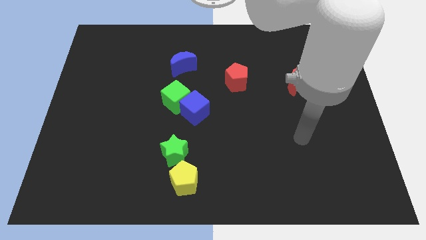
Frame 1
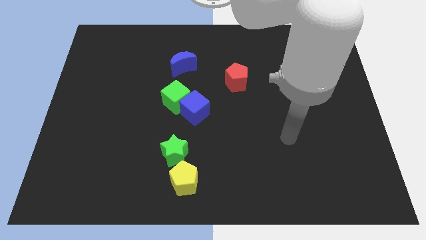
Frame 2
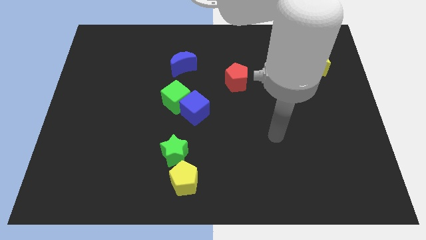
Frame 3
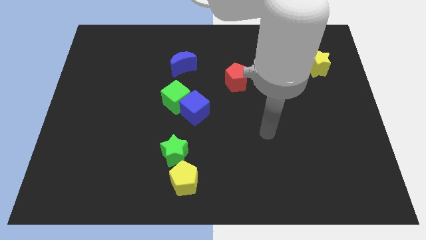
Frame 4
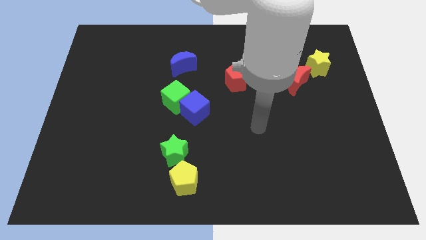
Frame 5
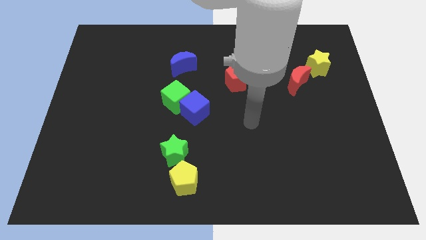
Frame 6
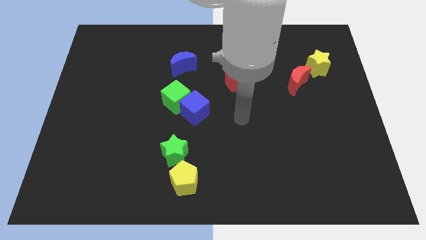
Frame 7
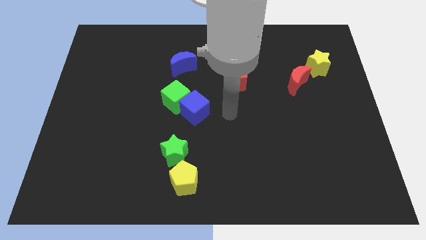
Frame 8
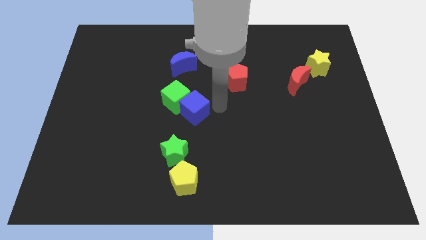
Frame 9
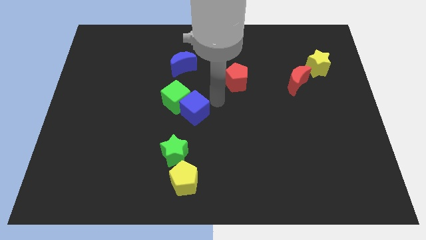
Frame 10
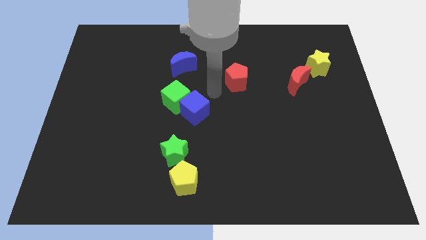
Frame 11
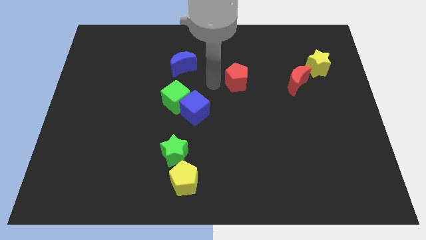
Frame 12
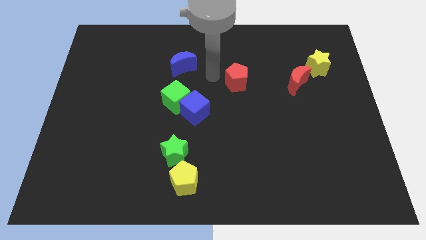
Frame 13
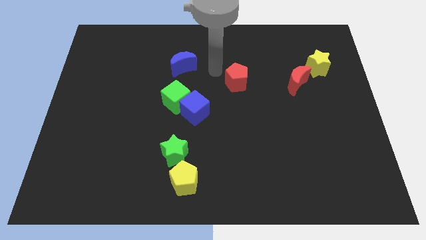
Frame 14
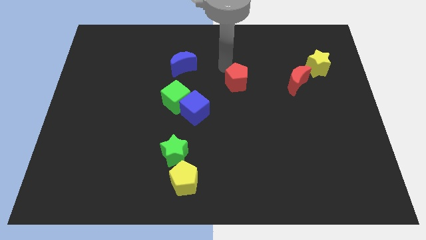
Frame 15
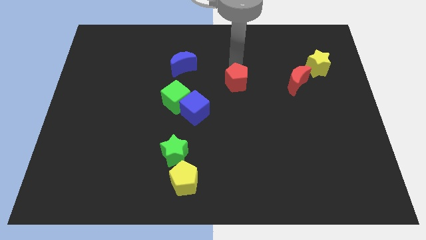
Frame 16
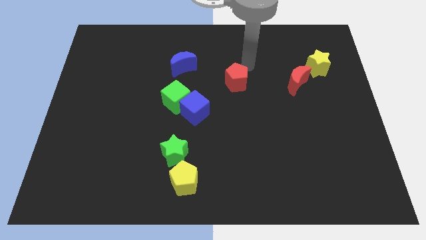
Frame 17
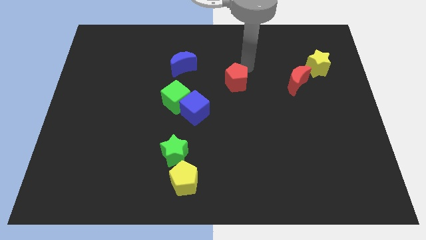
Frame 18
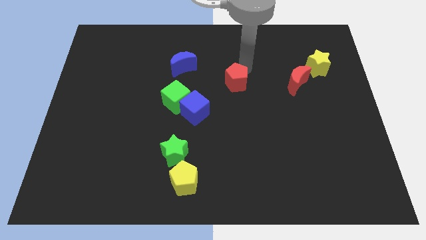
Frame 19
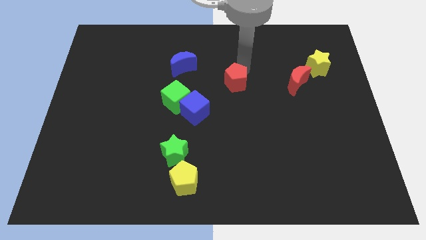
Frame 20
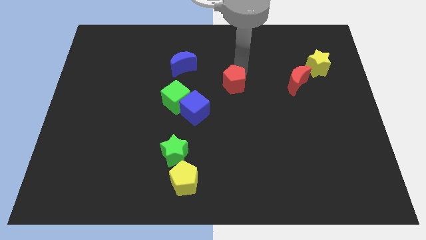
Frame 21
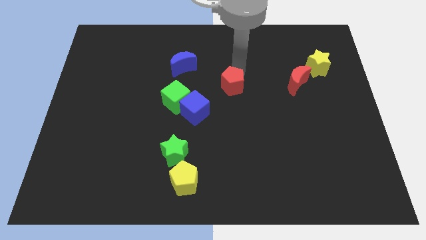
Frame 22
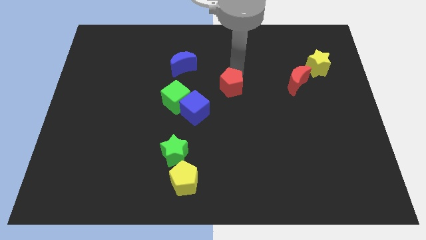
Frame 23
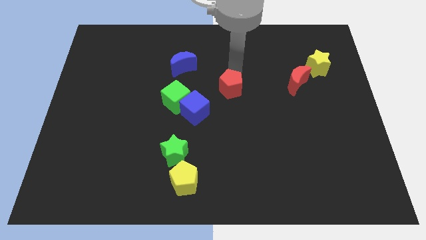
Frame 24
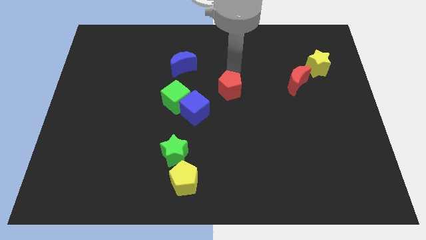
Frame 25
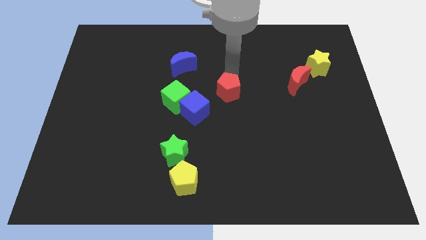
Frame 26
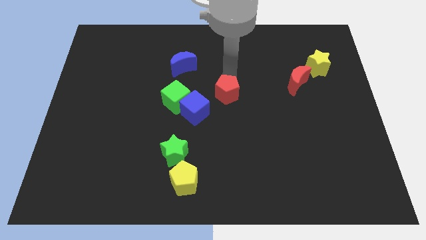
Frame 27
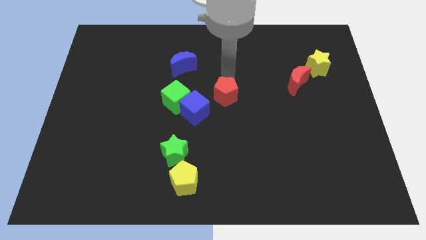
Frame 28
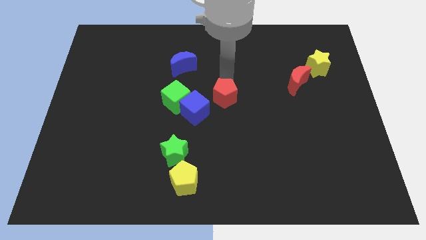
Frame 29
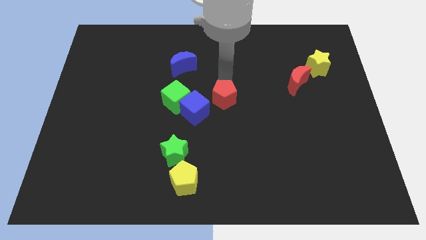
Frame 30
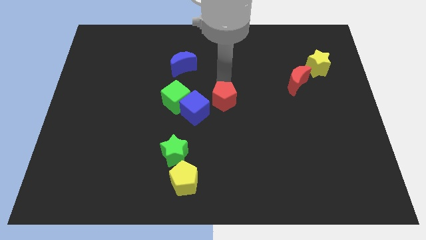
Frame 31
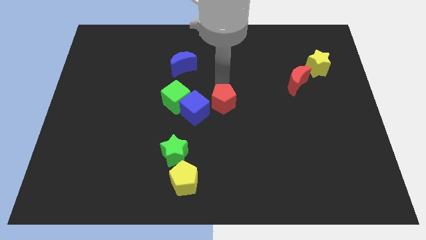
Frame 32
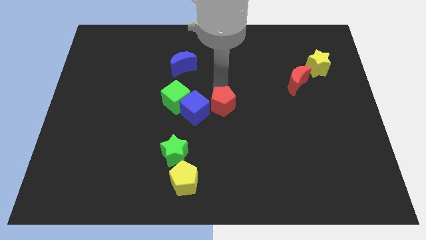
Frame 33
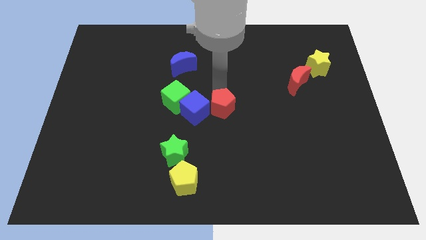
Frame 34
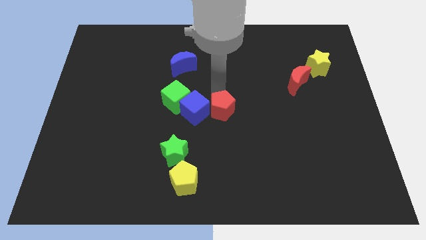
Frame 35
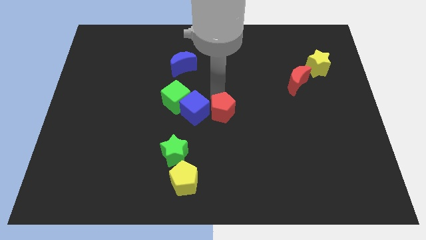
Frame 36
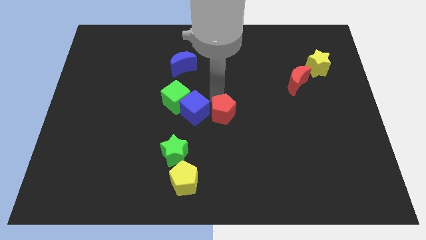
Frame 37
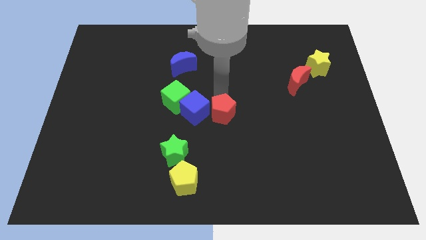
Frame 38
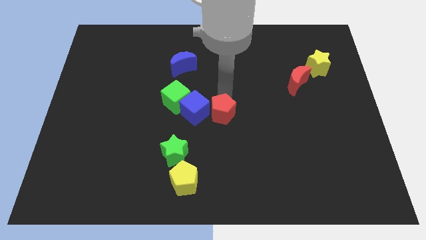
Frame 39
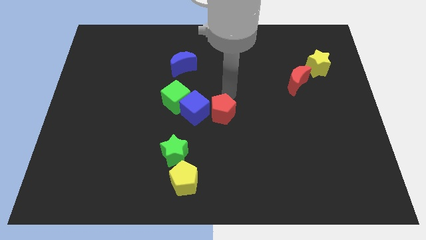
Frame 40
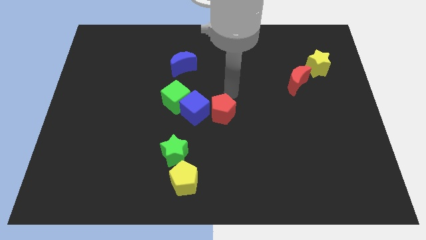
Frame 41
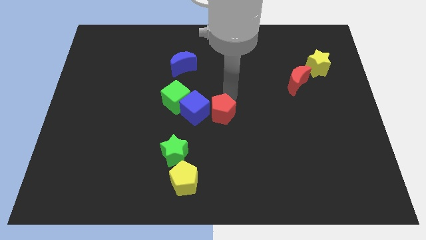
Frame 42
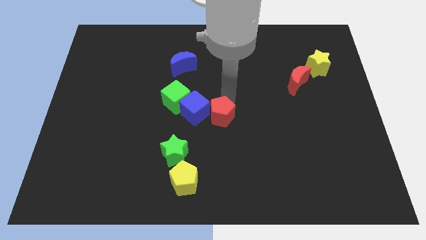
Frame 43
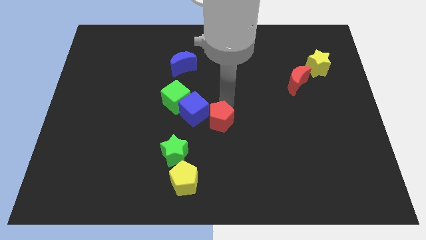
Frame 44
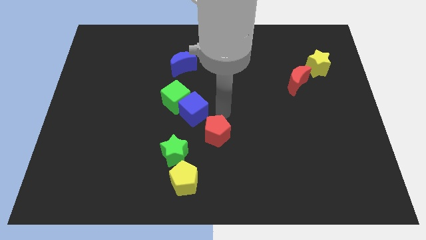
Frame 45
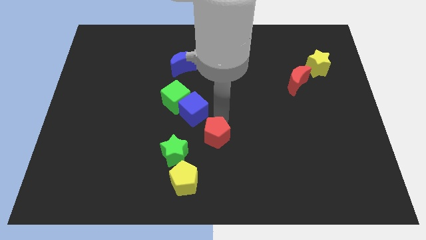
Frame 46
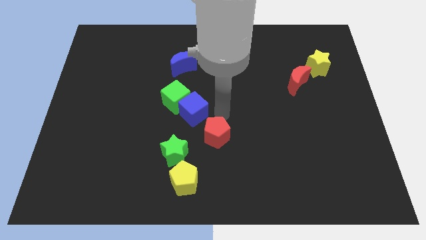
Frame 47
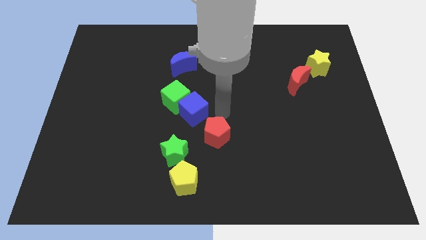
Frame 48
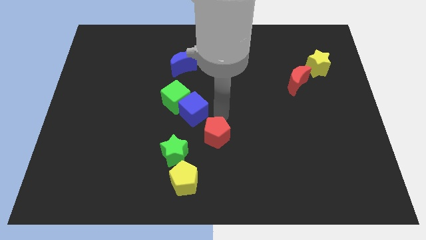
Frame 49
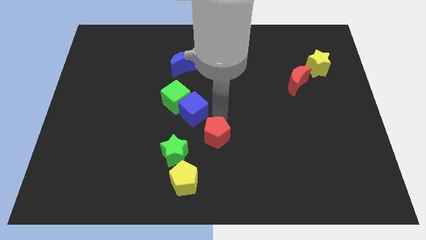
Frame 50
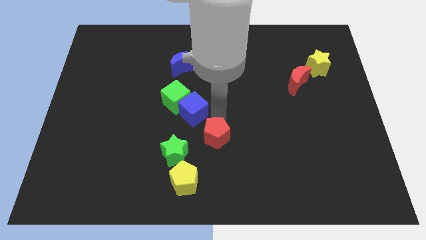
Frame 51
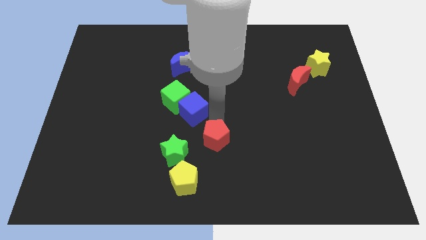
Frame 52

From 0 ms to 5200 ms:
move the red pentagon to the top right of the yellow pentagon
